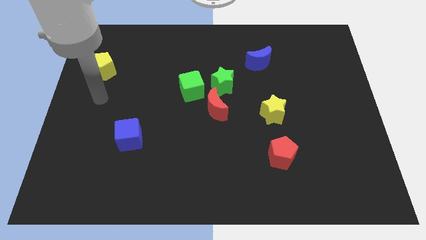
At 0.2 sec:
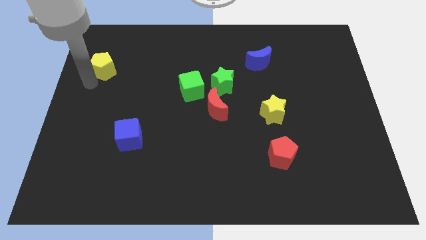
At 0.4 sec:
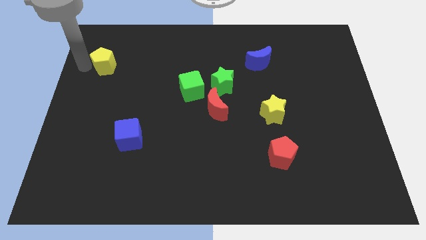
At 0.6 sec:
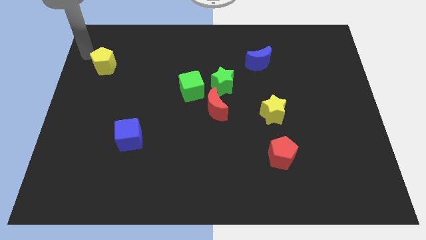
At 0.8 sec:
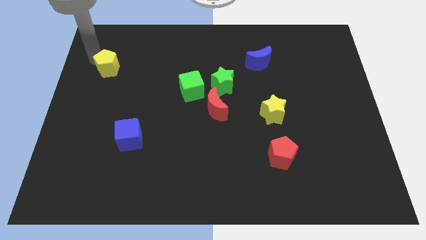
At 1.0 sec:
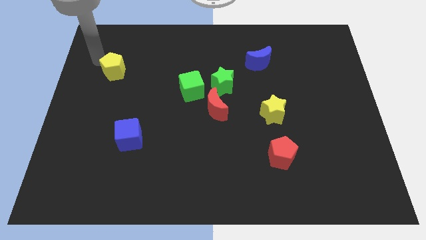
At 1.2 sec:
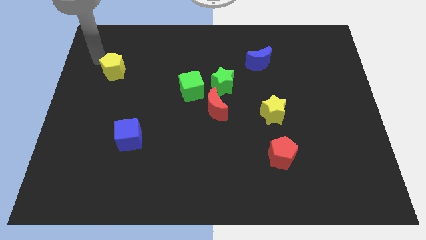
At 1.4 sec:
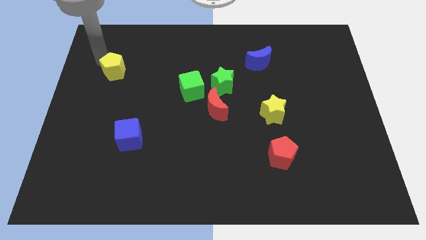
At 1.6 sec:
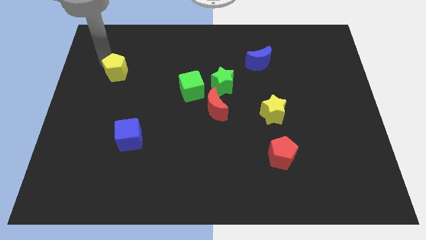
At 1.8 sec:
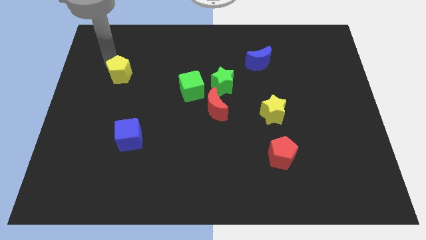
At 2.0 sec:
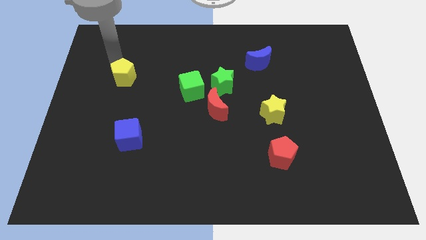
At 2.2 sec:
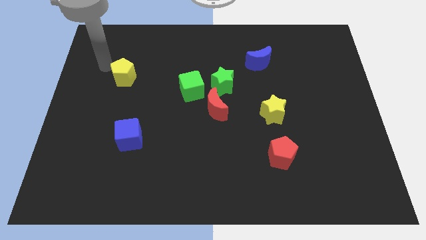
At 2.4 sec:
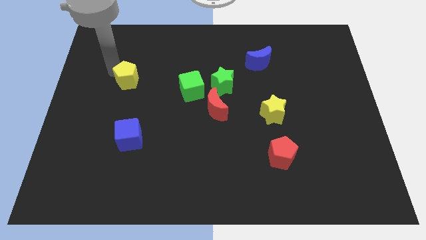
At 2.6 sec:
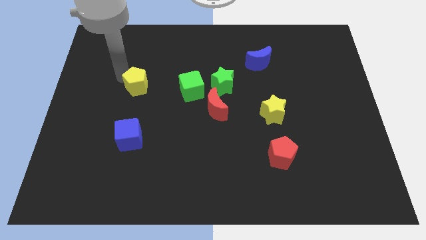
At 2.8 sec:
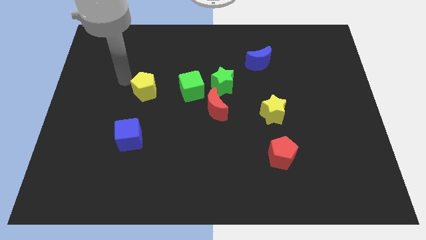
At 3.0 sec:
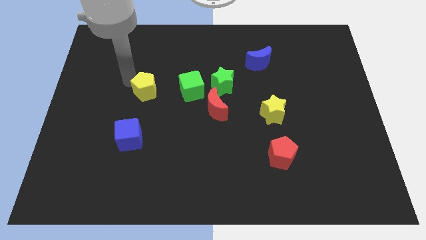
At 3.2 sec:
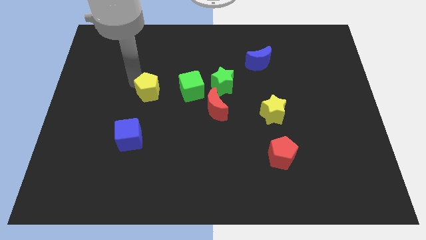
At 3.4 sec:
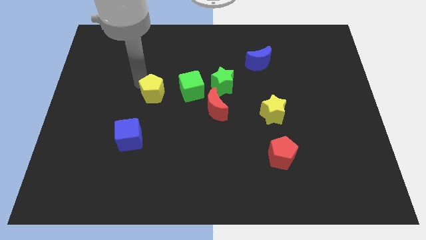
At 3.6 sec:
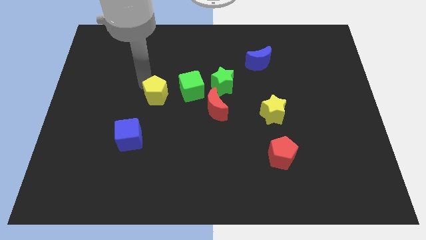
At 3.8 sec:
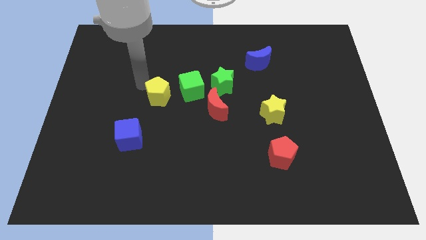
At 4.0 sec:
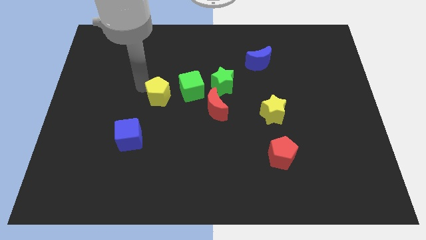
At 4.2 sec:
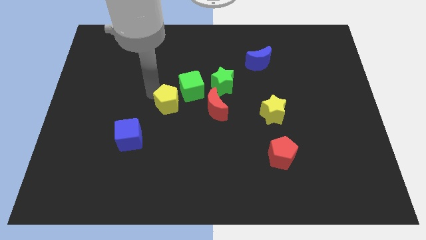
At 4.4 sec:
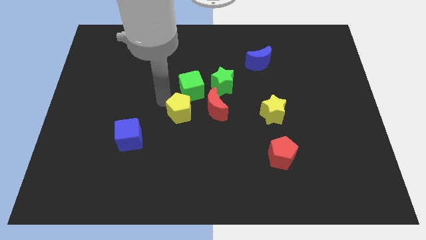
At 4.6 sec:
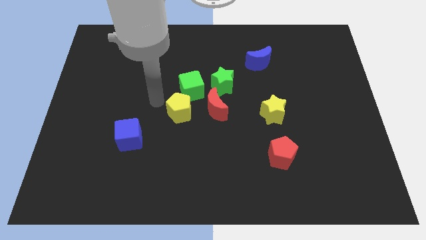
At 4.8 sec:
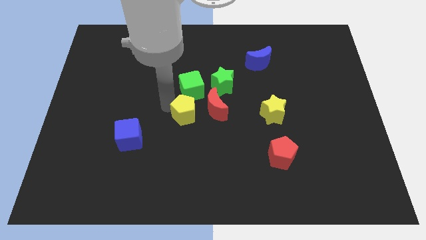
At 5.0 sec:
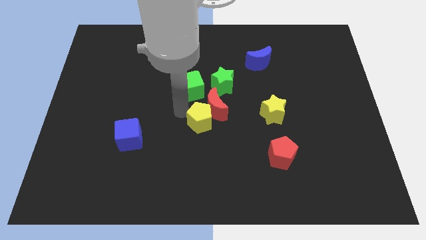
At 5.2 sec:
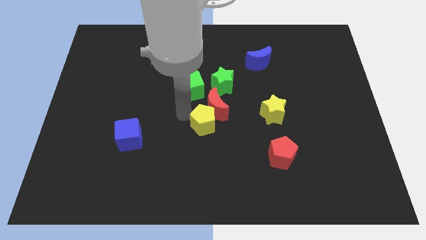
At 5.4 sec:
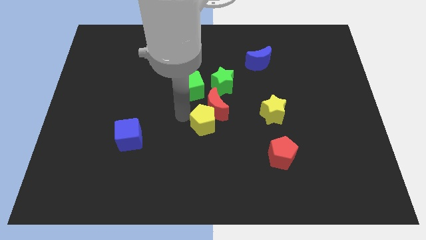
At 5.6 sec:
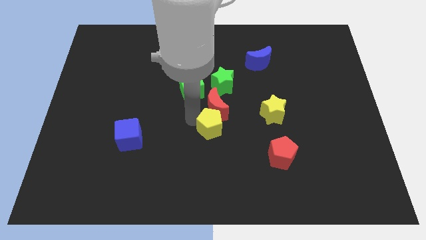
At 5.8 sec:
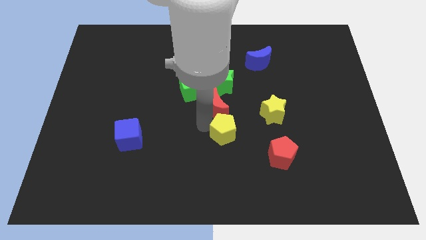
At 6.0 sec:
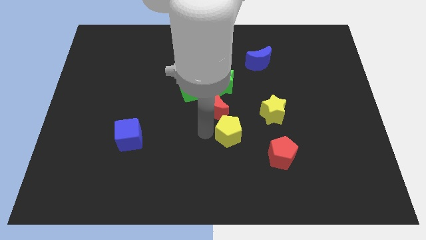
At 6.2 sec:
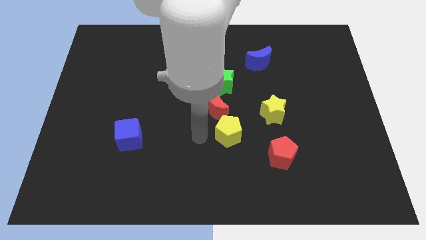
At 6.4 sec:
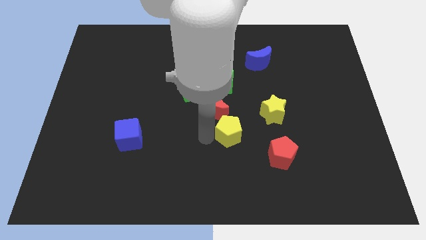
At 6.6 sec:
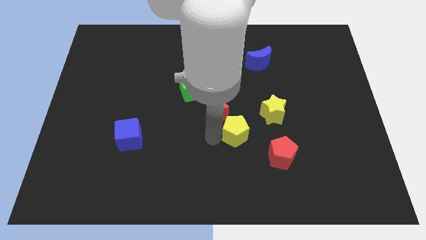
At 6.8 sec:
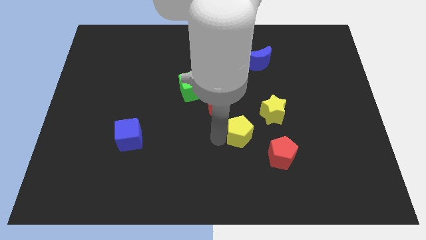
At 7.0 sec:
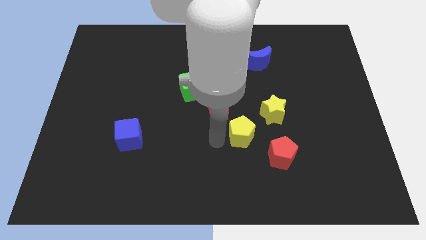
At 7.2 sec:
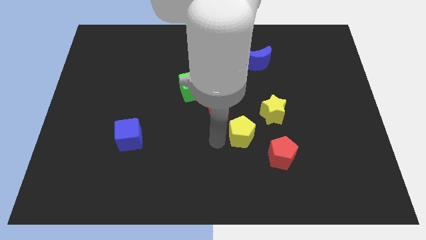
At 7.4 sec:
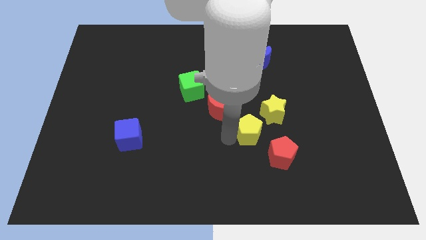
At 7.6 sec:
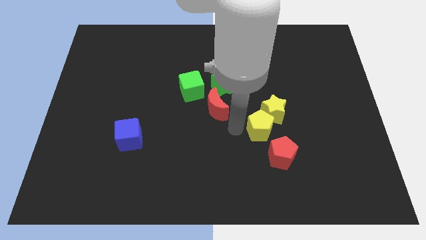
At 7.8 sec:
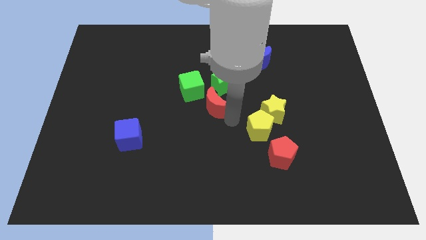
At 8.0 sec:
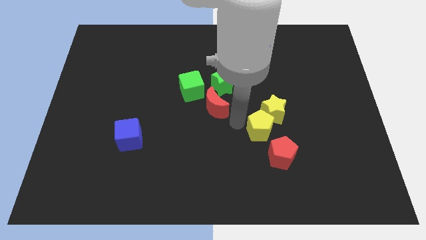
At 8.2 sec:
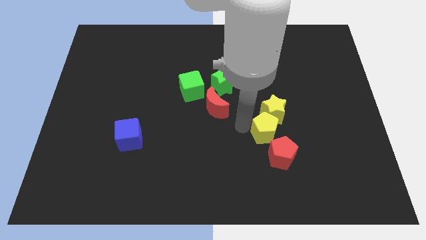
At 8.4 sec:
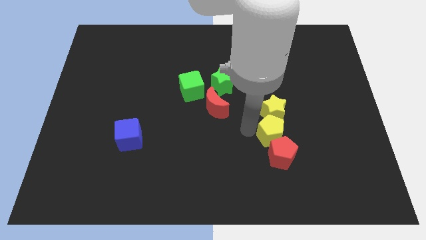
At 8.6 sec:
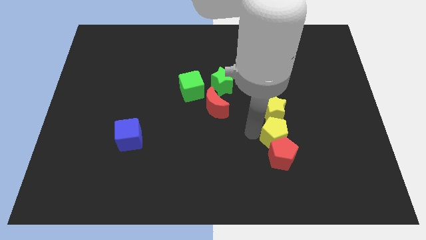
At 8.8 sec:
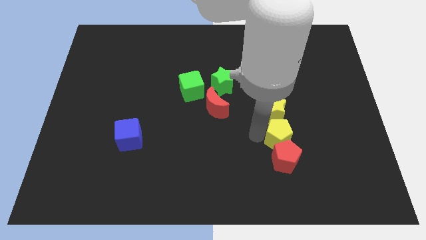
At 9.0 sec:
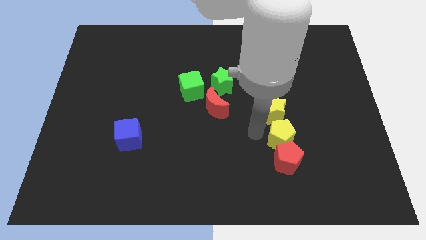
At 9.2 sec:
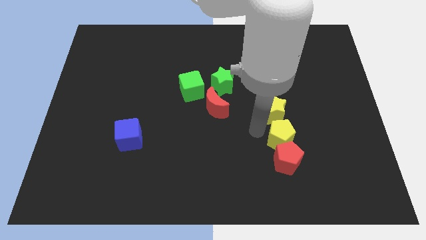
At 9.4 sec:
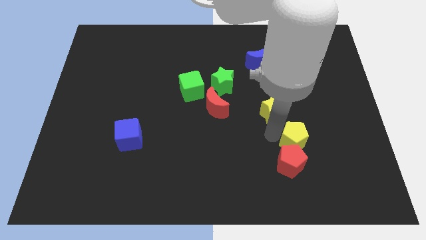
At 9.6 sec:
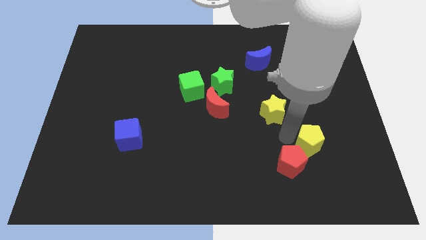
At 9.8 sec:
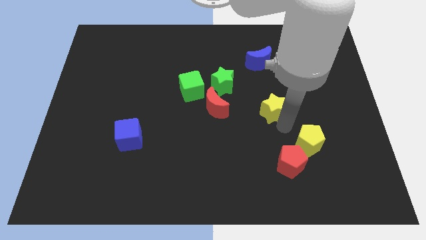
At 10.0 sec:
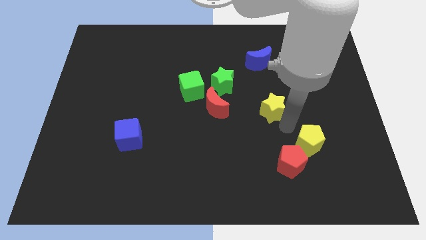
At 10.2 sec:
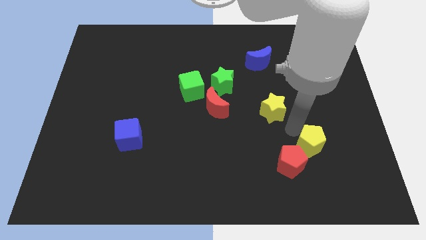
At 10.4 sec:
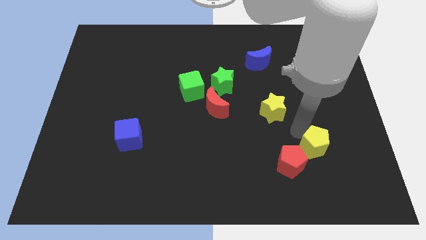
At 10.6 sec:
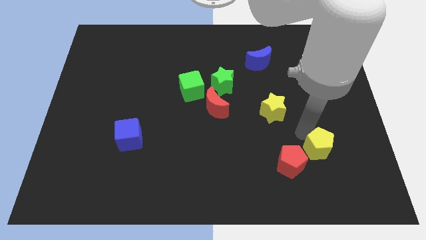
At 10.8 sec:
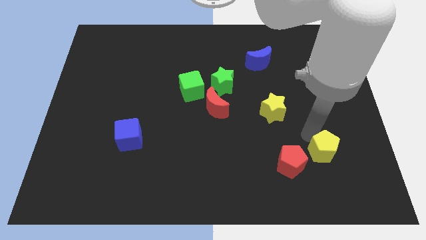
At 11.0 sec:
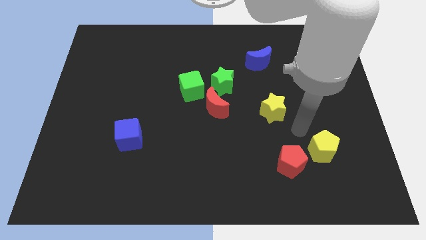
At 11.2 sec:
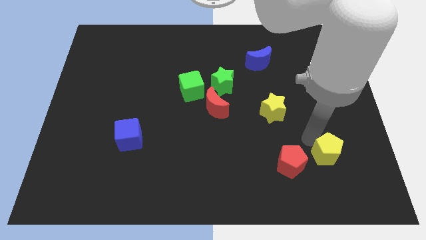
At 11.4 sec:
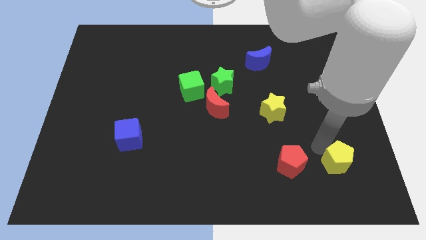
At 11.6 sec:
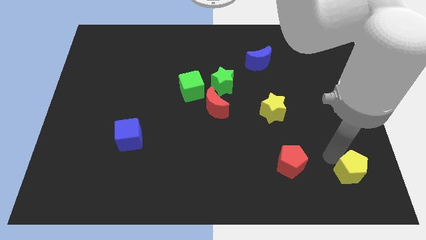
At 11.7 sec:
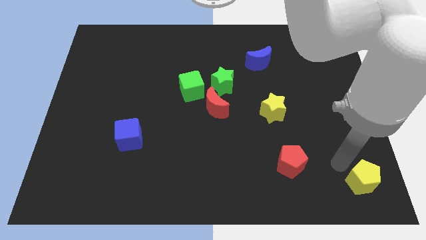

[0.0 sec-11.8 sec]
slide the yellow pentagon to the bottom right of the board

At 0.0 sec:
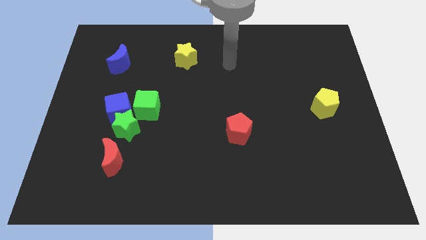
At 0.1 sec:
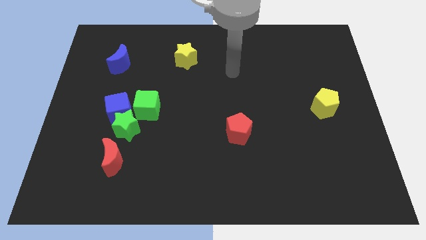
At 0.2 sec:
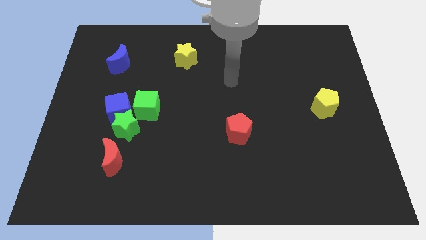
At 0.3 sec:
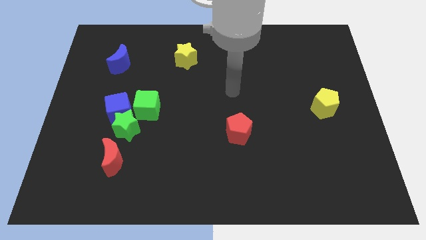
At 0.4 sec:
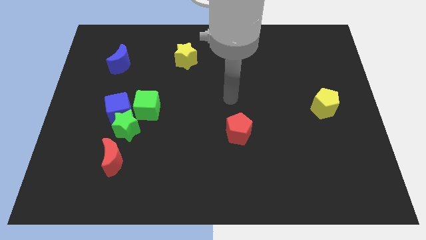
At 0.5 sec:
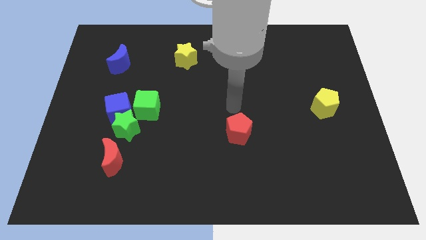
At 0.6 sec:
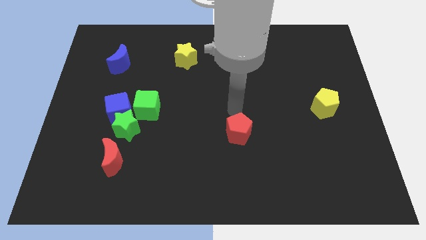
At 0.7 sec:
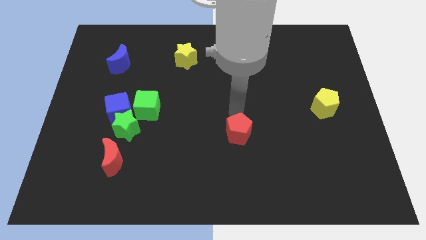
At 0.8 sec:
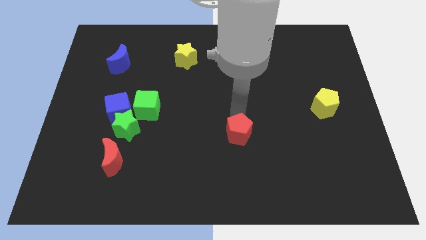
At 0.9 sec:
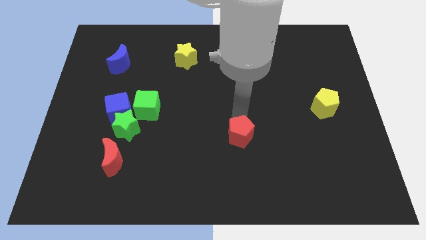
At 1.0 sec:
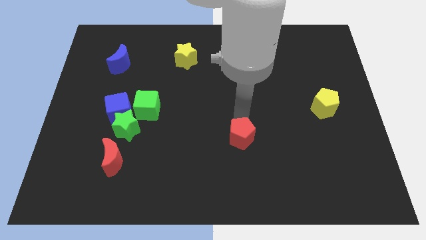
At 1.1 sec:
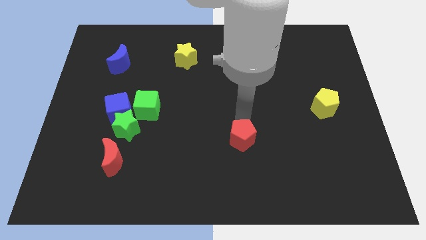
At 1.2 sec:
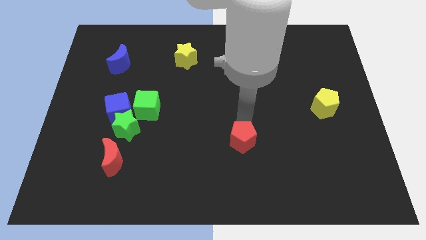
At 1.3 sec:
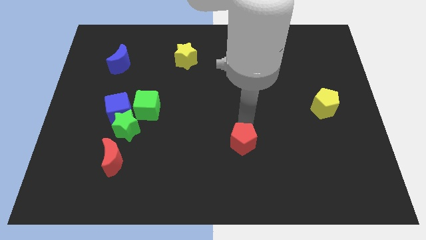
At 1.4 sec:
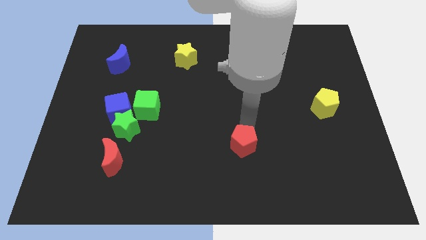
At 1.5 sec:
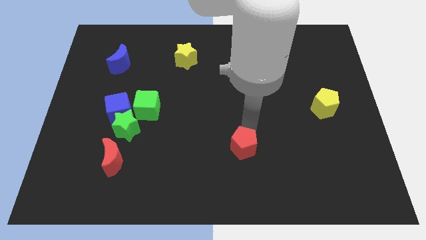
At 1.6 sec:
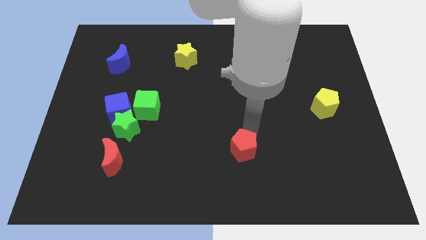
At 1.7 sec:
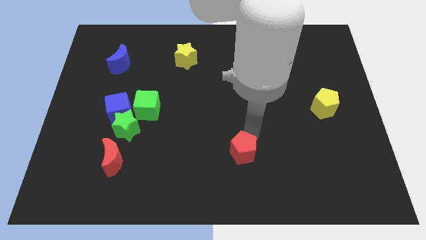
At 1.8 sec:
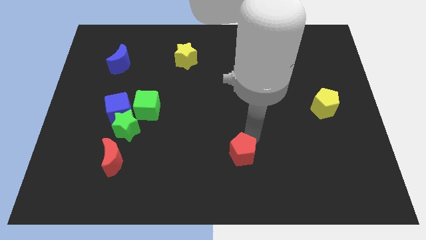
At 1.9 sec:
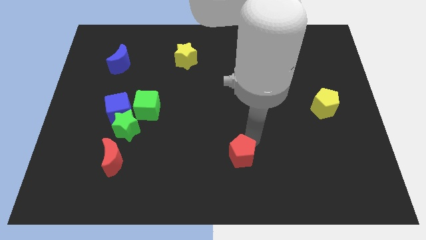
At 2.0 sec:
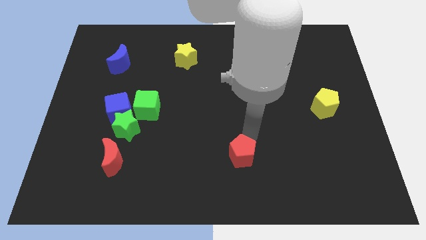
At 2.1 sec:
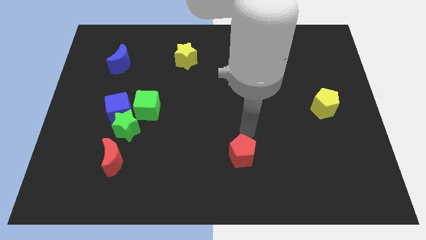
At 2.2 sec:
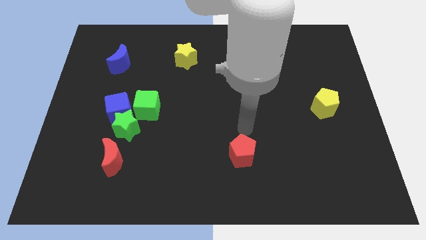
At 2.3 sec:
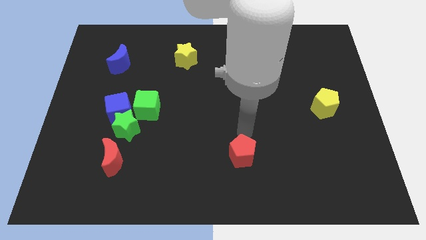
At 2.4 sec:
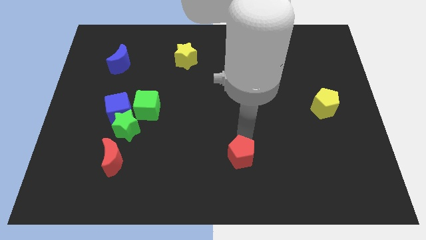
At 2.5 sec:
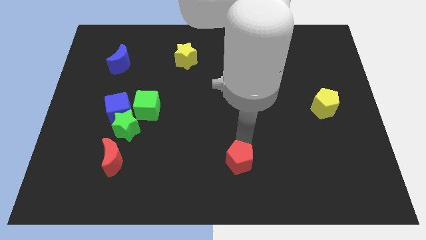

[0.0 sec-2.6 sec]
put the red pentagon to the bottom side
